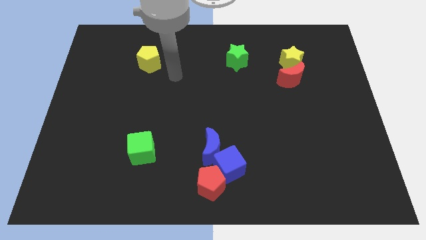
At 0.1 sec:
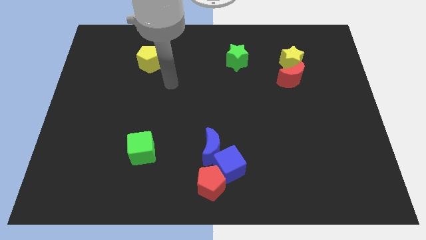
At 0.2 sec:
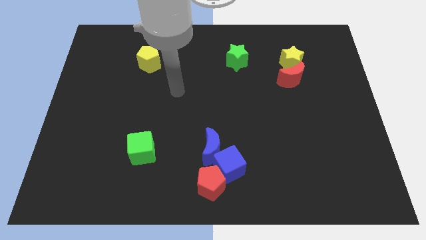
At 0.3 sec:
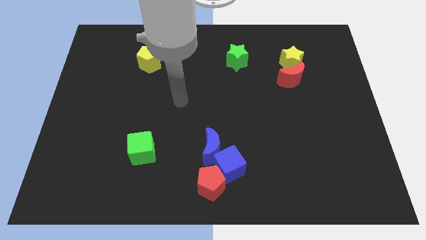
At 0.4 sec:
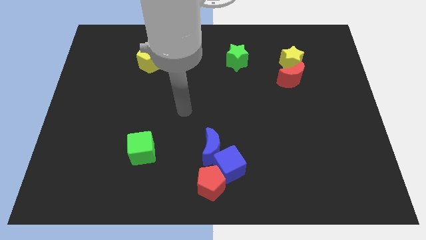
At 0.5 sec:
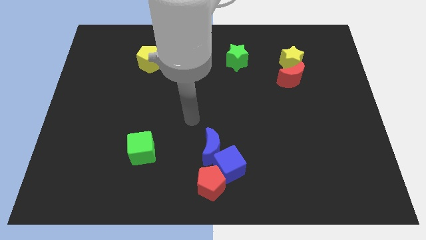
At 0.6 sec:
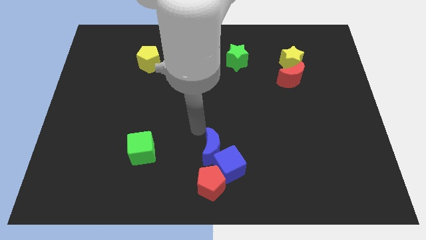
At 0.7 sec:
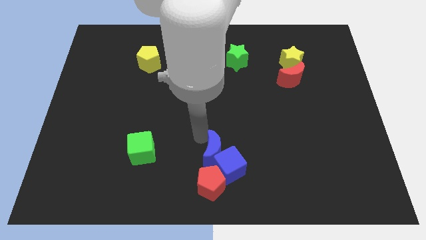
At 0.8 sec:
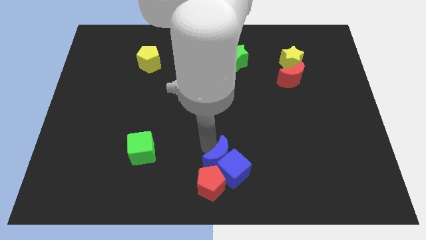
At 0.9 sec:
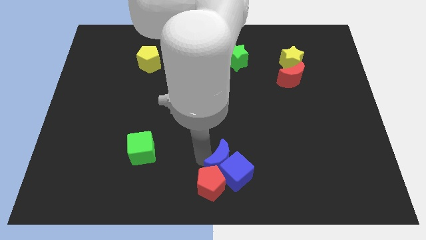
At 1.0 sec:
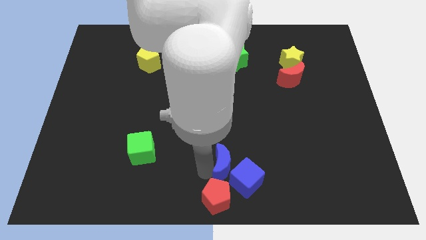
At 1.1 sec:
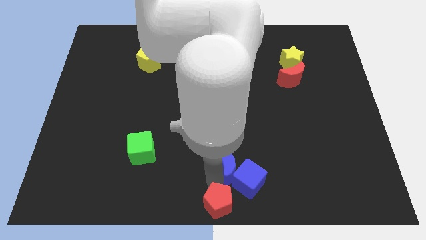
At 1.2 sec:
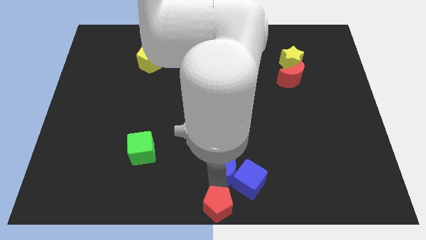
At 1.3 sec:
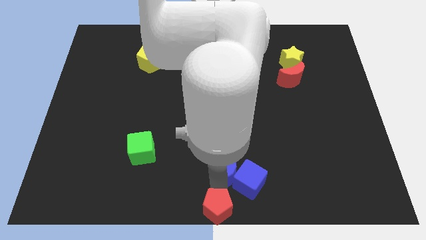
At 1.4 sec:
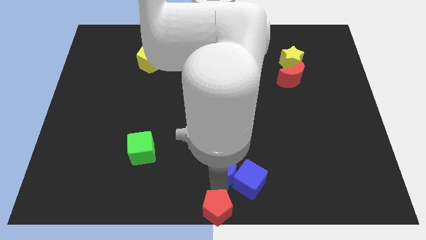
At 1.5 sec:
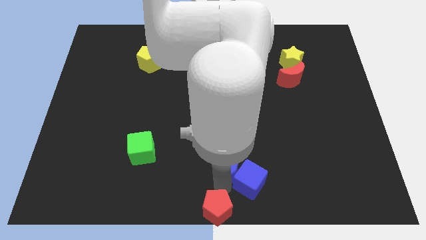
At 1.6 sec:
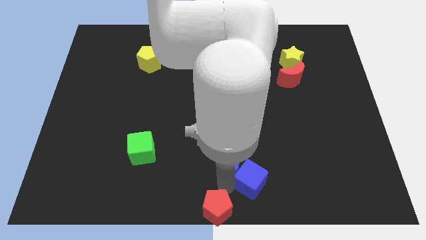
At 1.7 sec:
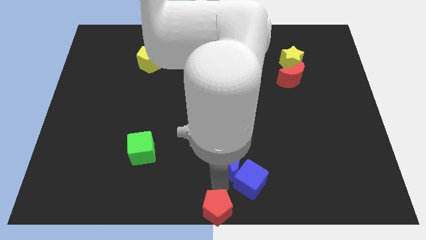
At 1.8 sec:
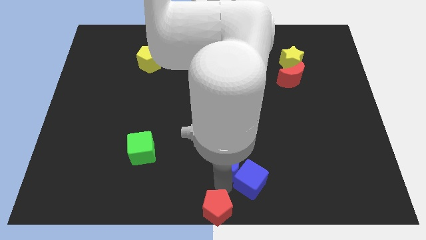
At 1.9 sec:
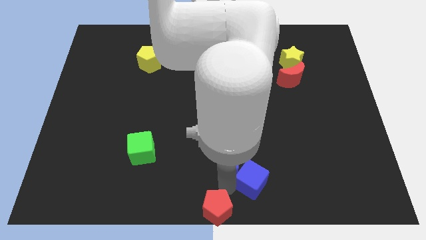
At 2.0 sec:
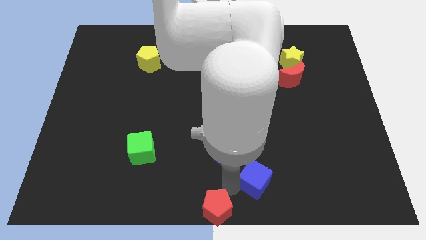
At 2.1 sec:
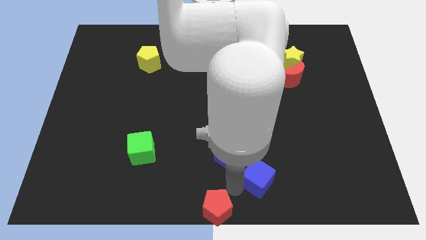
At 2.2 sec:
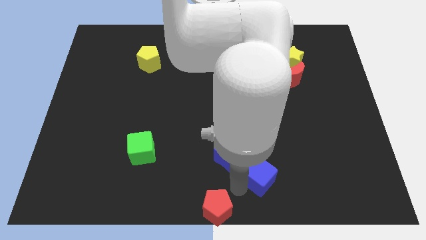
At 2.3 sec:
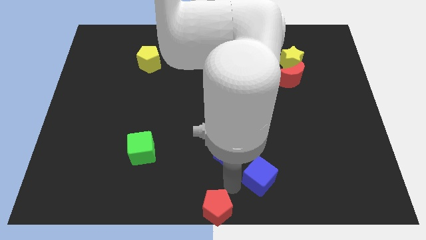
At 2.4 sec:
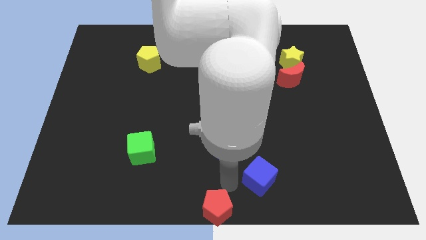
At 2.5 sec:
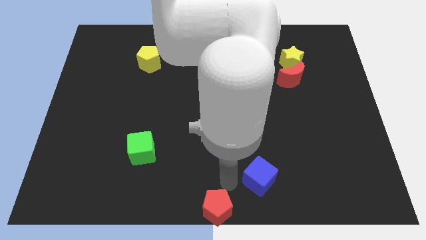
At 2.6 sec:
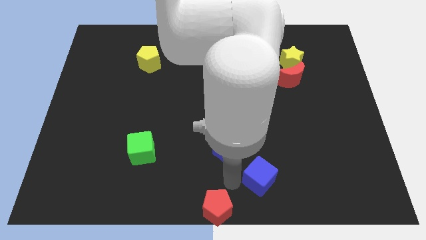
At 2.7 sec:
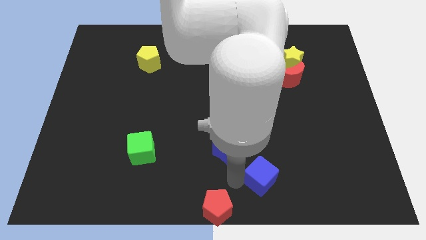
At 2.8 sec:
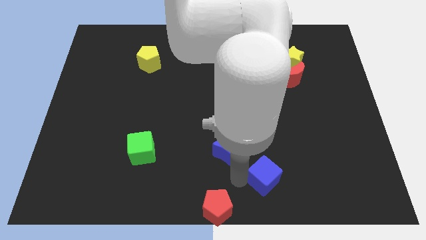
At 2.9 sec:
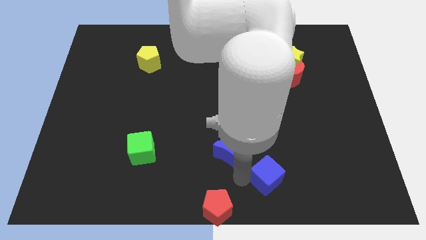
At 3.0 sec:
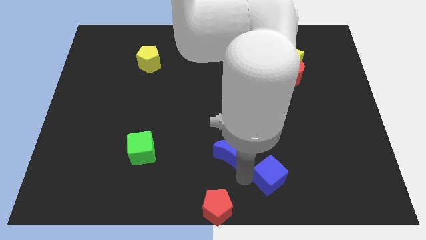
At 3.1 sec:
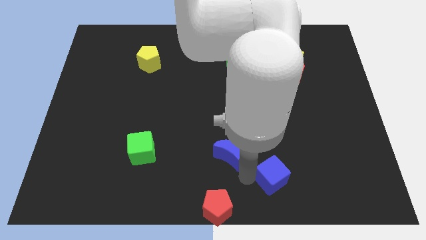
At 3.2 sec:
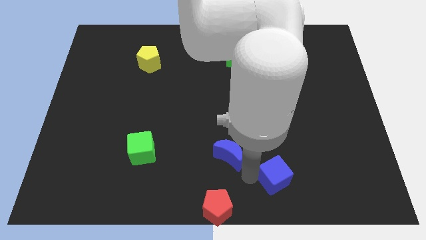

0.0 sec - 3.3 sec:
pull the blue cube apart from the red pentagon and blue moon

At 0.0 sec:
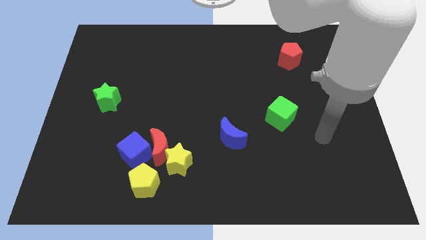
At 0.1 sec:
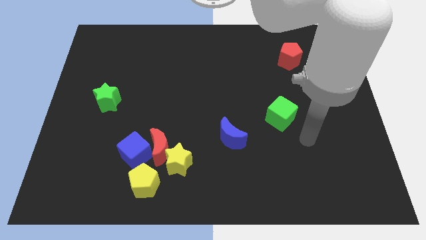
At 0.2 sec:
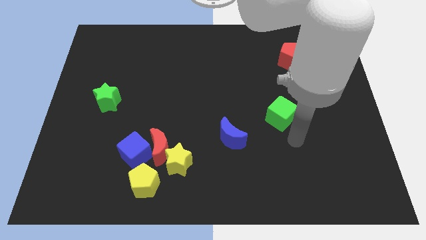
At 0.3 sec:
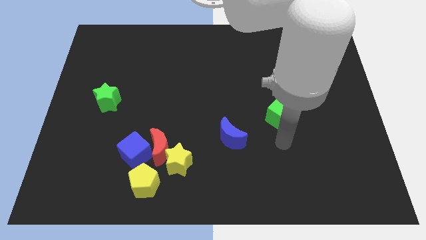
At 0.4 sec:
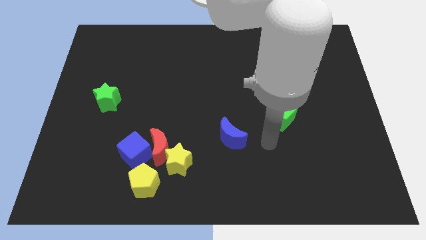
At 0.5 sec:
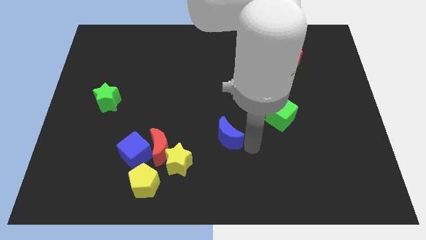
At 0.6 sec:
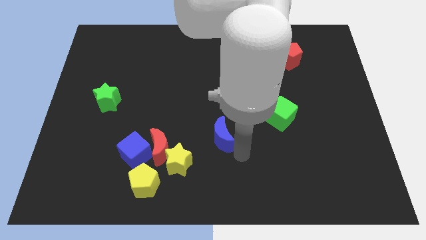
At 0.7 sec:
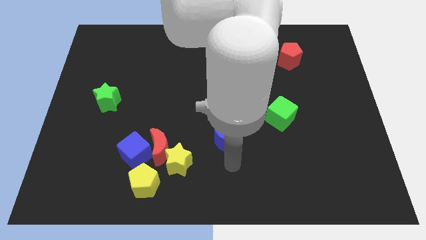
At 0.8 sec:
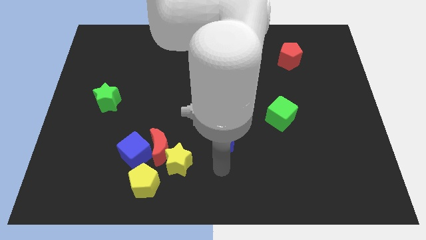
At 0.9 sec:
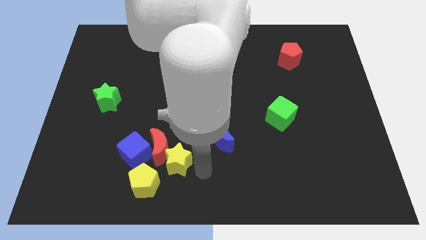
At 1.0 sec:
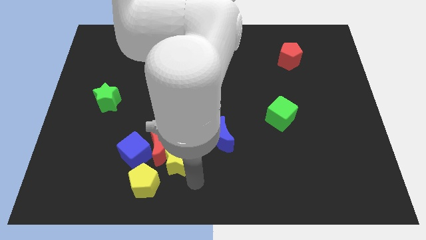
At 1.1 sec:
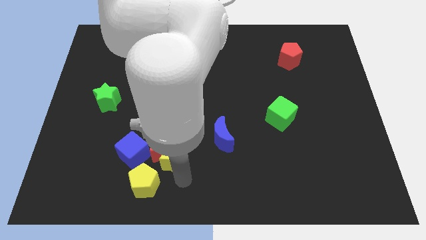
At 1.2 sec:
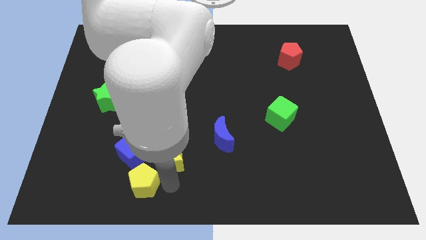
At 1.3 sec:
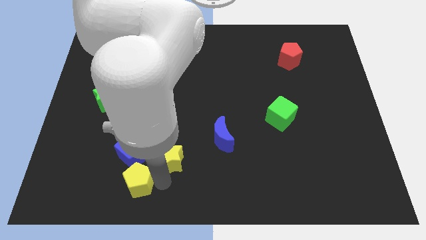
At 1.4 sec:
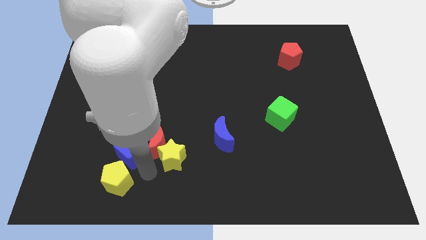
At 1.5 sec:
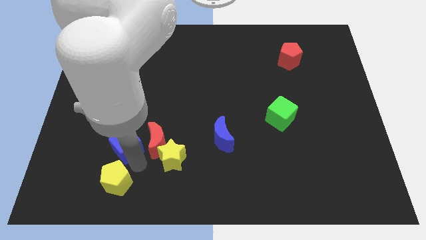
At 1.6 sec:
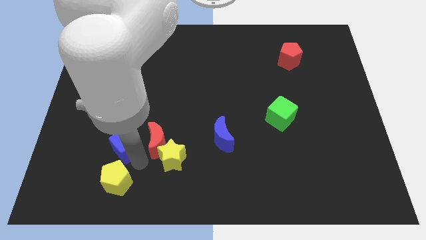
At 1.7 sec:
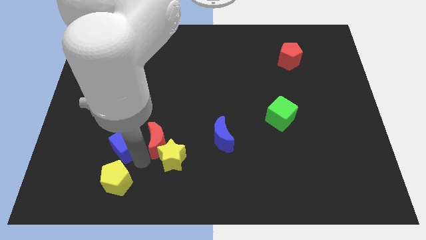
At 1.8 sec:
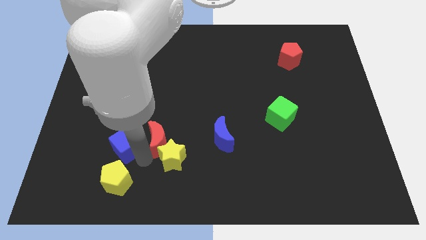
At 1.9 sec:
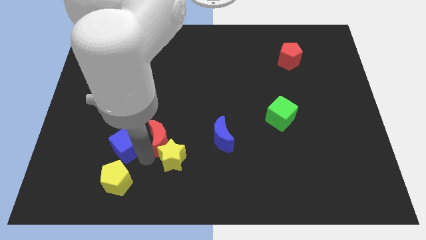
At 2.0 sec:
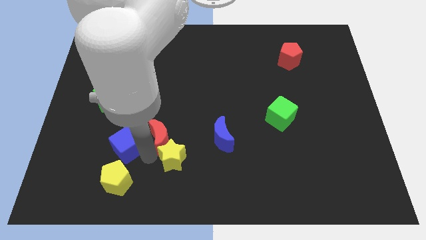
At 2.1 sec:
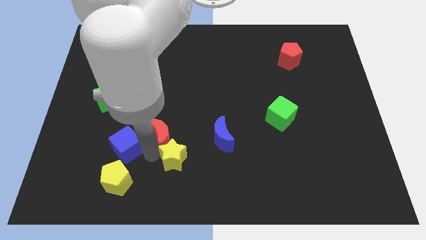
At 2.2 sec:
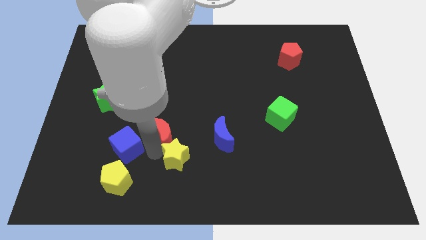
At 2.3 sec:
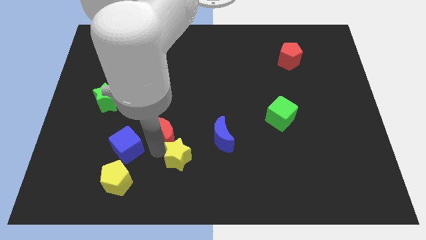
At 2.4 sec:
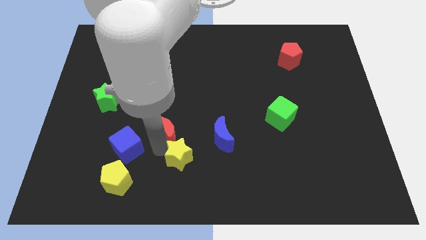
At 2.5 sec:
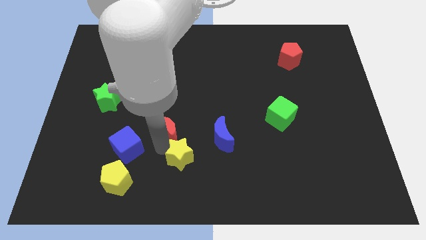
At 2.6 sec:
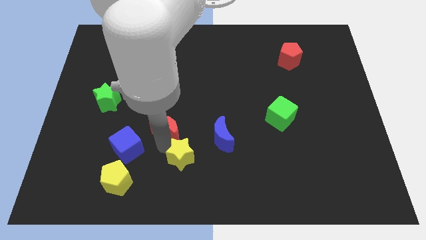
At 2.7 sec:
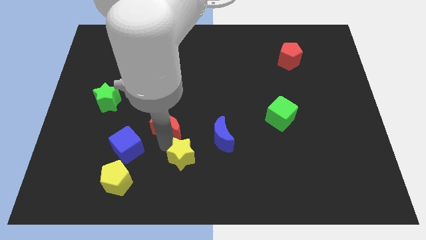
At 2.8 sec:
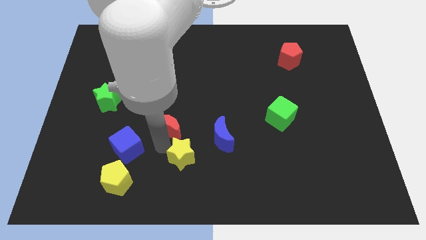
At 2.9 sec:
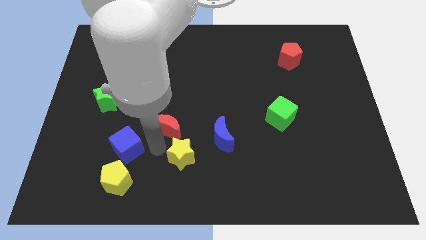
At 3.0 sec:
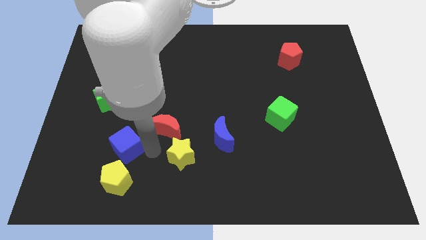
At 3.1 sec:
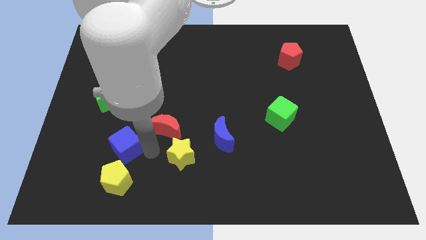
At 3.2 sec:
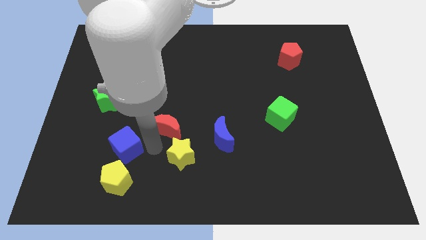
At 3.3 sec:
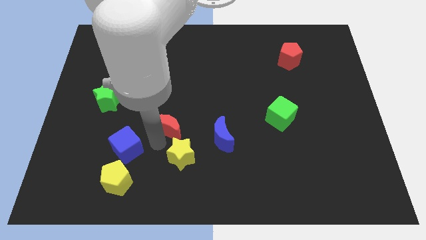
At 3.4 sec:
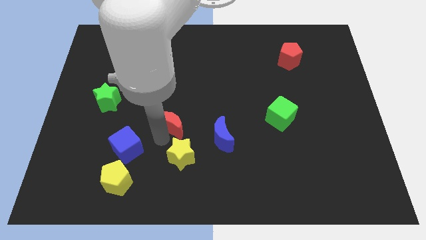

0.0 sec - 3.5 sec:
pull the red moon apart from the group of blocks

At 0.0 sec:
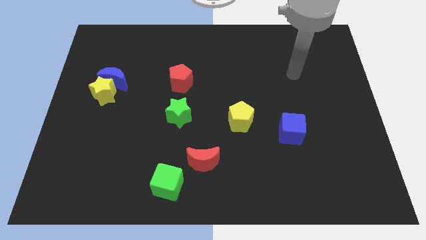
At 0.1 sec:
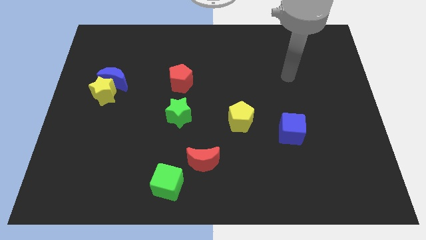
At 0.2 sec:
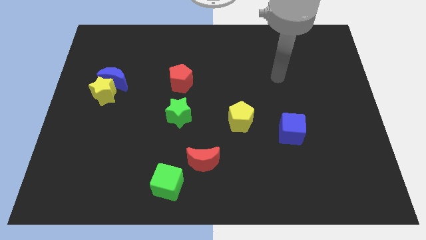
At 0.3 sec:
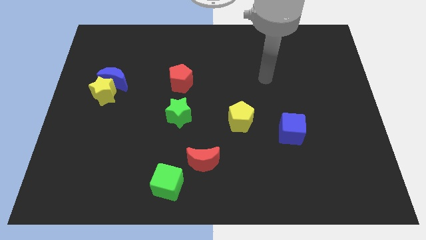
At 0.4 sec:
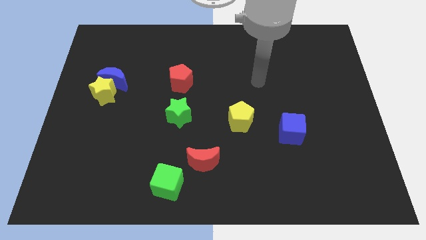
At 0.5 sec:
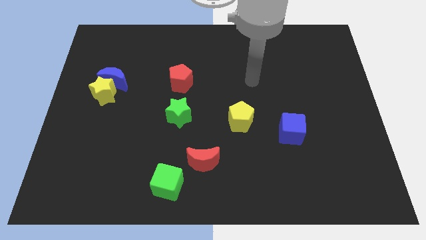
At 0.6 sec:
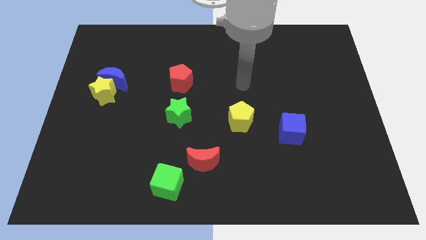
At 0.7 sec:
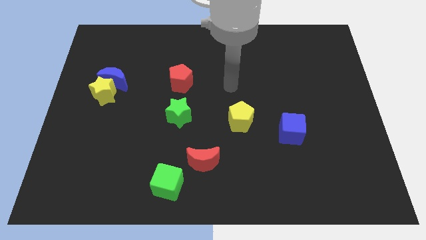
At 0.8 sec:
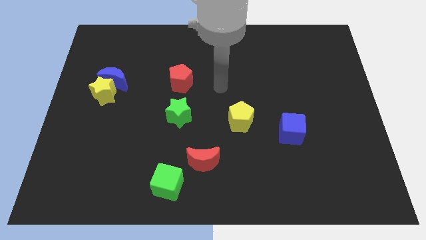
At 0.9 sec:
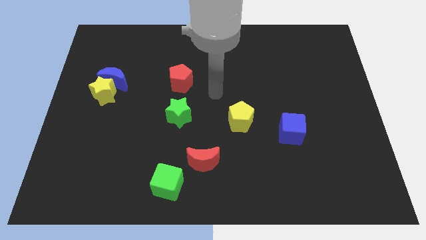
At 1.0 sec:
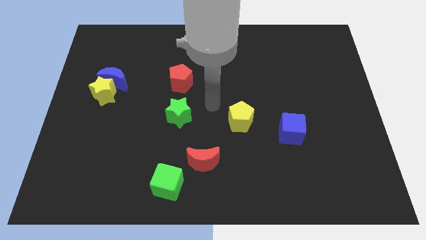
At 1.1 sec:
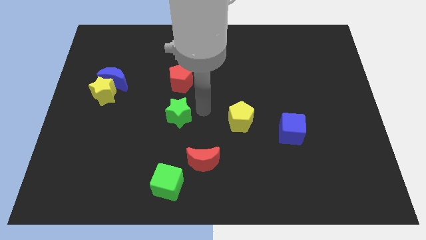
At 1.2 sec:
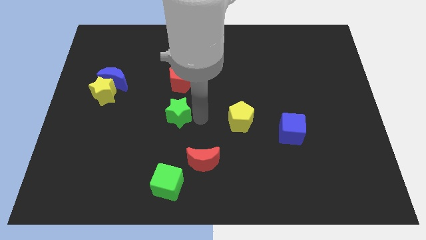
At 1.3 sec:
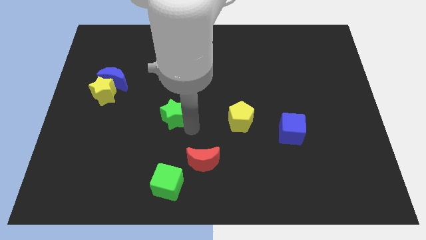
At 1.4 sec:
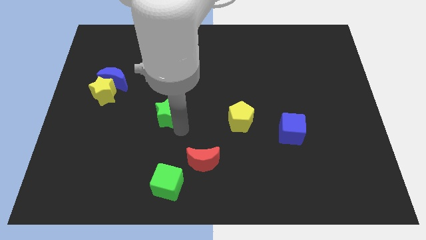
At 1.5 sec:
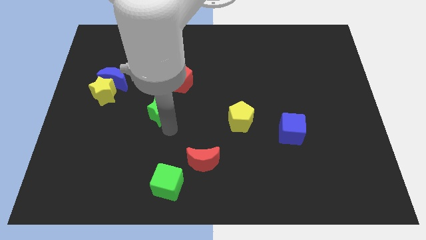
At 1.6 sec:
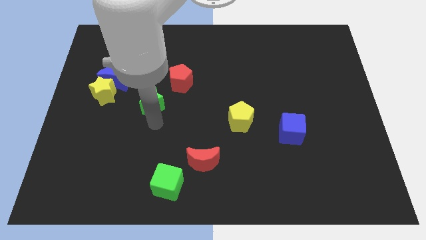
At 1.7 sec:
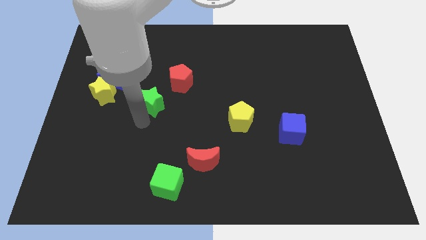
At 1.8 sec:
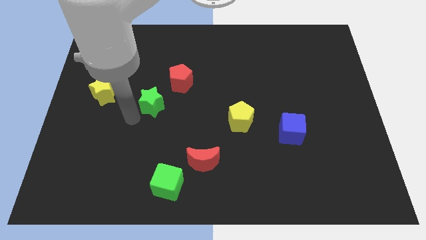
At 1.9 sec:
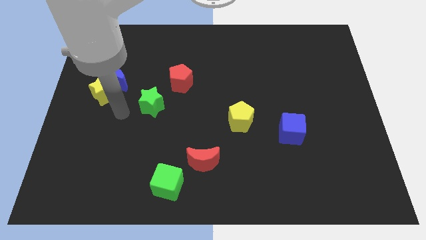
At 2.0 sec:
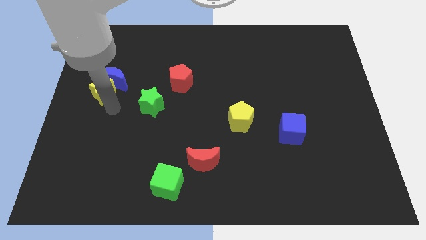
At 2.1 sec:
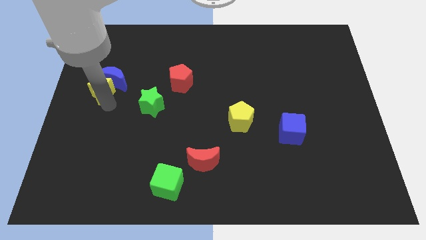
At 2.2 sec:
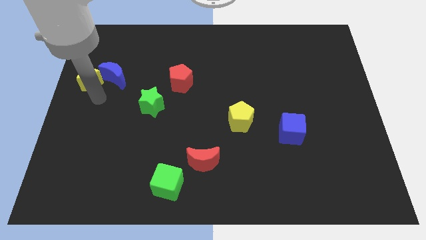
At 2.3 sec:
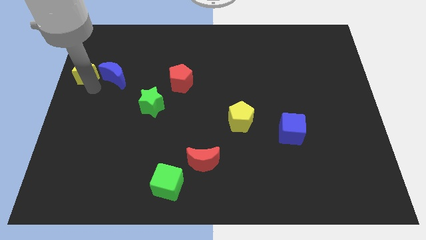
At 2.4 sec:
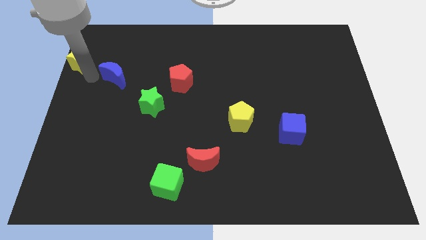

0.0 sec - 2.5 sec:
pull the blue moon apart from the yellow star
